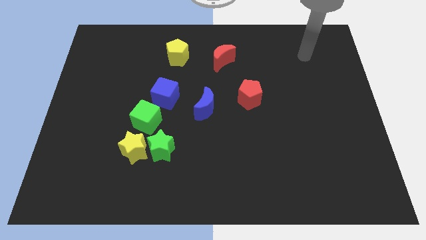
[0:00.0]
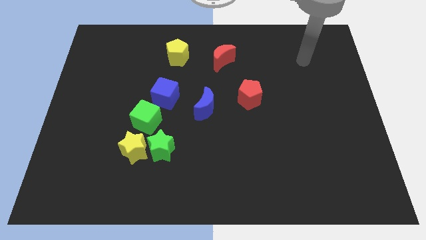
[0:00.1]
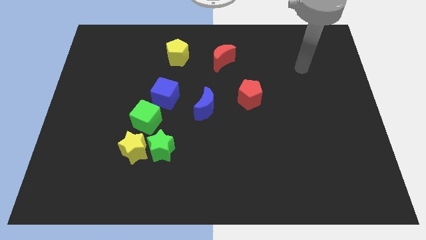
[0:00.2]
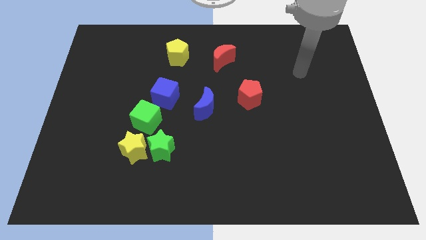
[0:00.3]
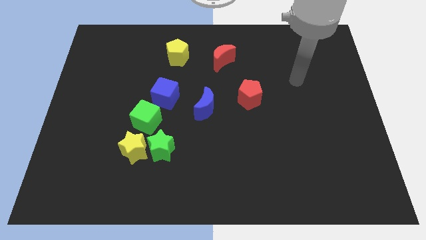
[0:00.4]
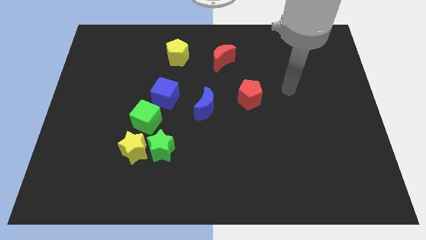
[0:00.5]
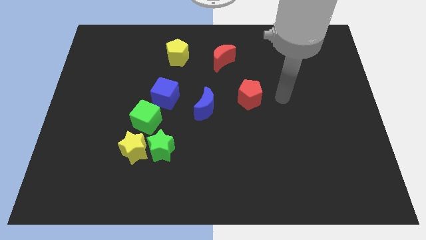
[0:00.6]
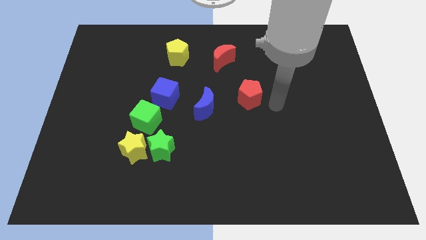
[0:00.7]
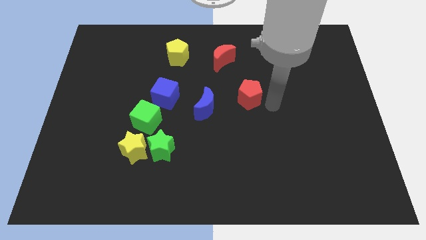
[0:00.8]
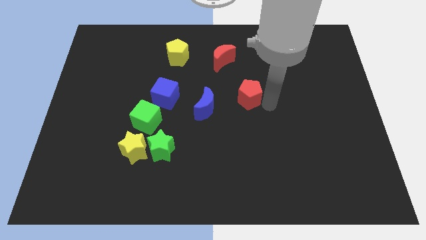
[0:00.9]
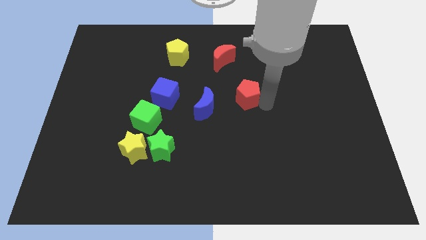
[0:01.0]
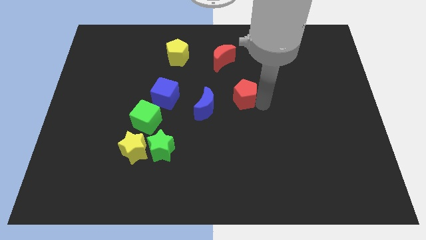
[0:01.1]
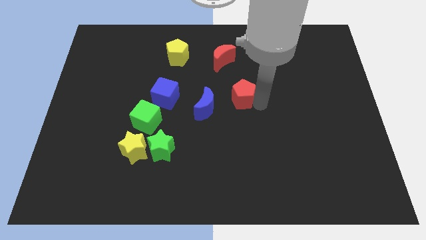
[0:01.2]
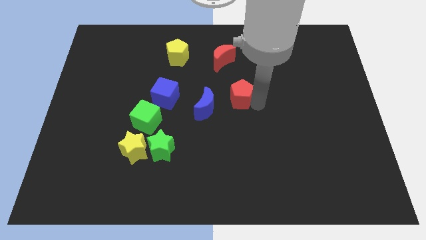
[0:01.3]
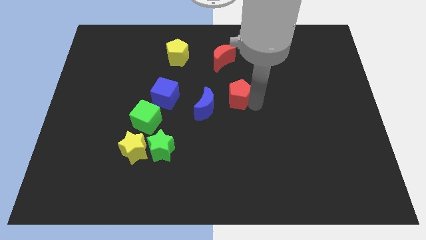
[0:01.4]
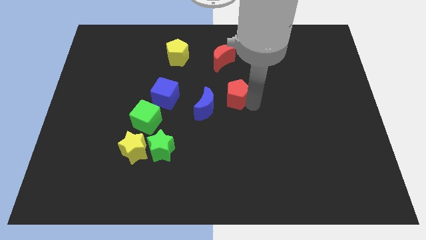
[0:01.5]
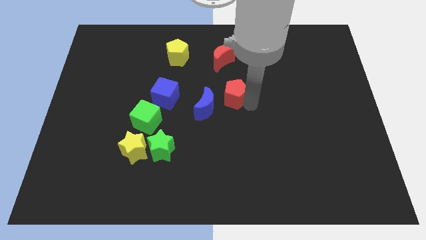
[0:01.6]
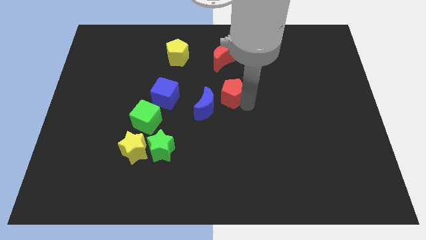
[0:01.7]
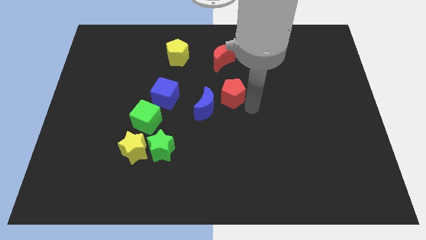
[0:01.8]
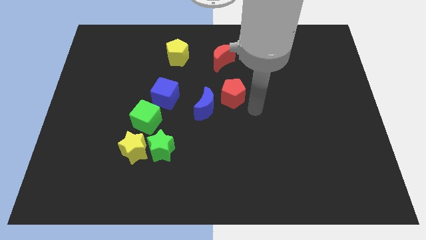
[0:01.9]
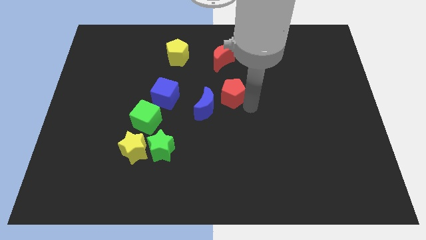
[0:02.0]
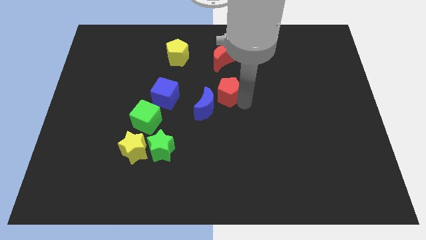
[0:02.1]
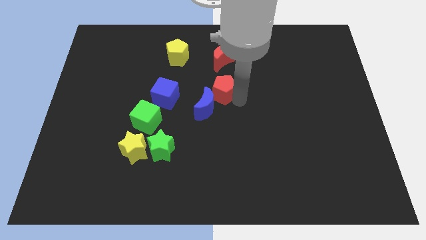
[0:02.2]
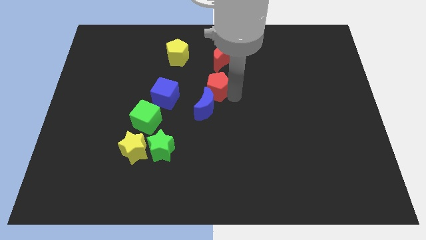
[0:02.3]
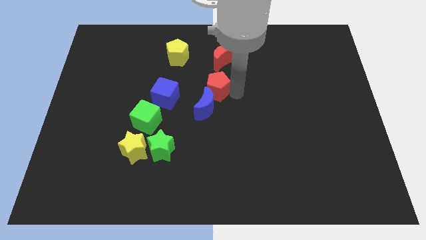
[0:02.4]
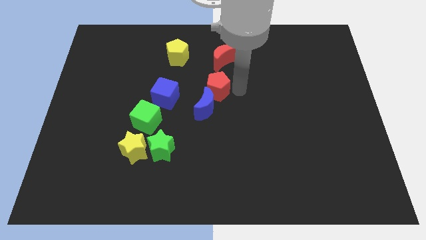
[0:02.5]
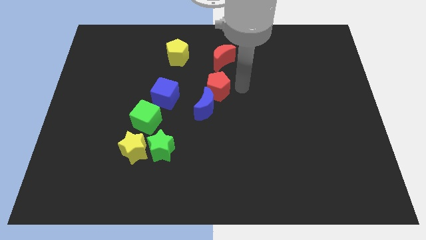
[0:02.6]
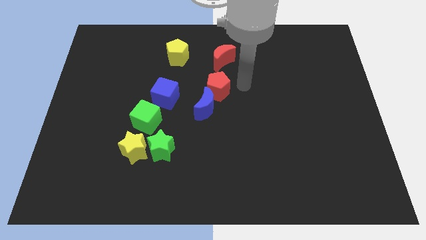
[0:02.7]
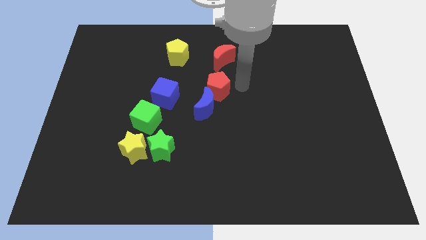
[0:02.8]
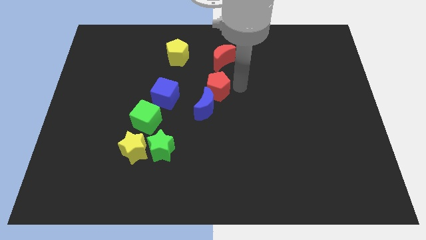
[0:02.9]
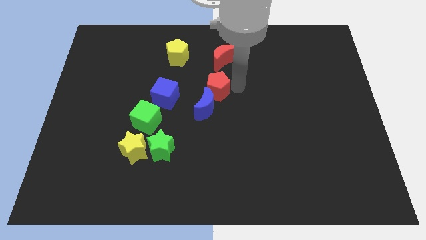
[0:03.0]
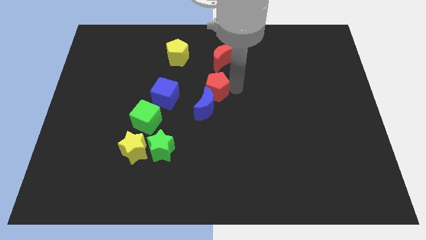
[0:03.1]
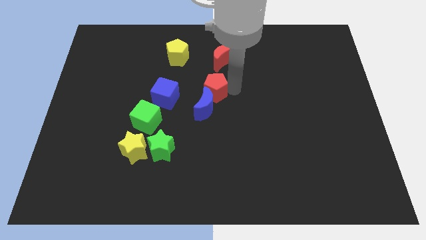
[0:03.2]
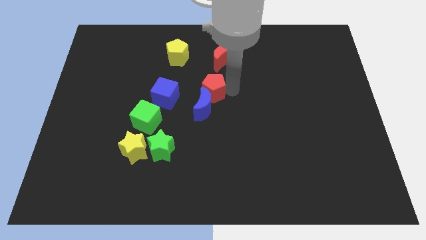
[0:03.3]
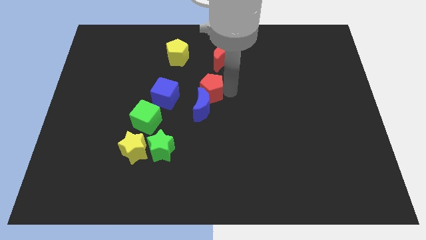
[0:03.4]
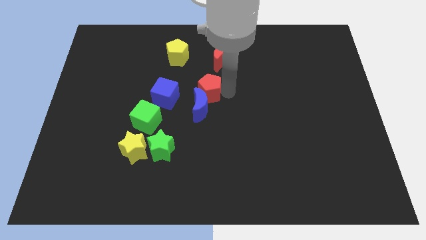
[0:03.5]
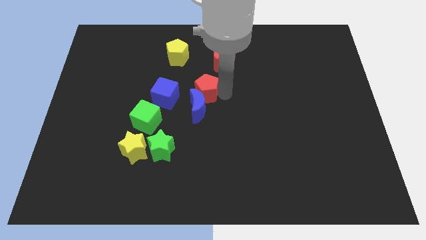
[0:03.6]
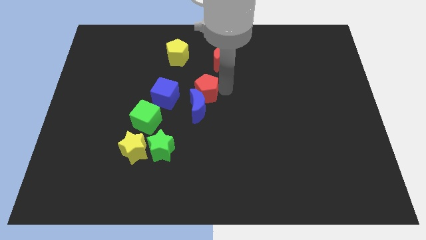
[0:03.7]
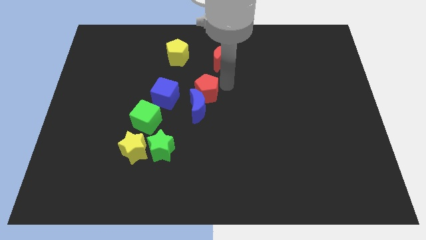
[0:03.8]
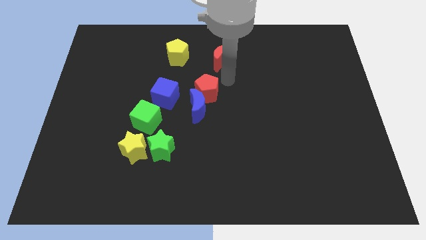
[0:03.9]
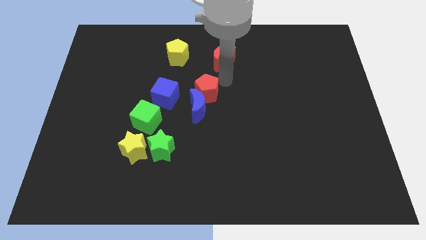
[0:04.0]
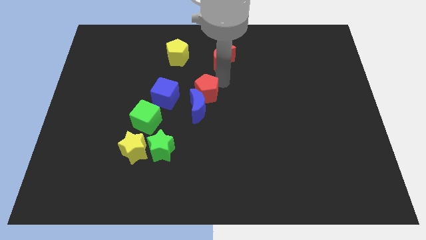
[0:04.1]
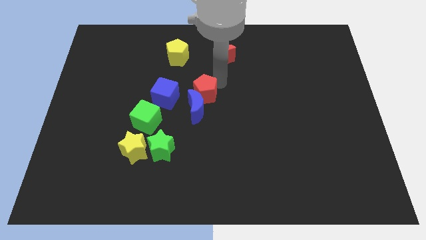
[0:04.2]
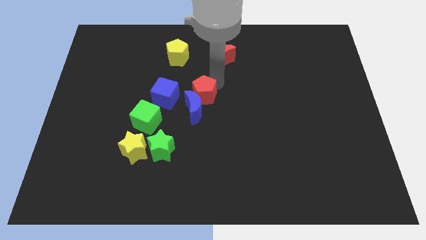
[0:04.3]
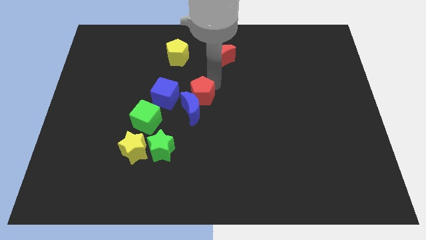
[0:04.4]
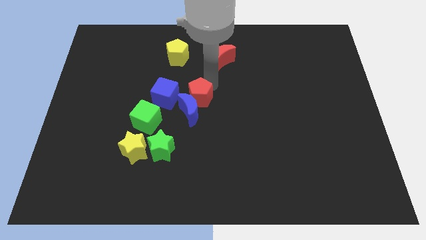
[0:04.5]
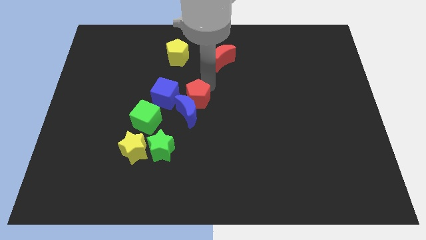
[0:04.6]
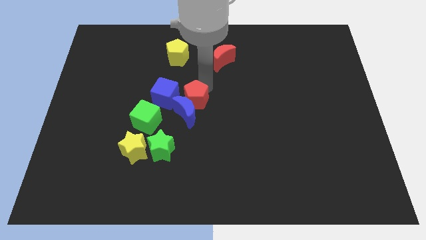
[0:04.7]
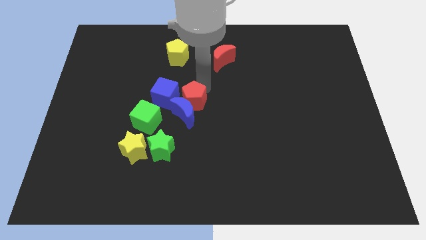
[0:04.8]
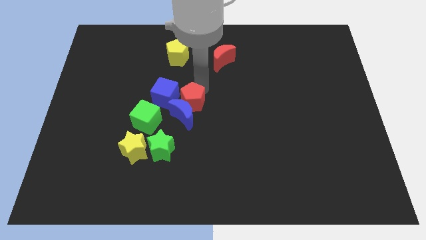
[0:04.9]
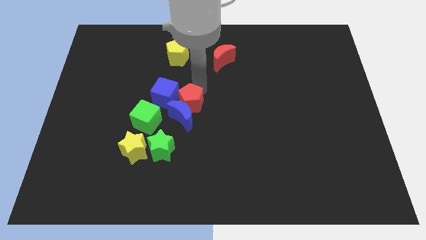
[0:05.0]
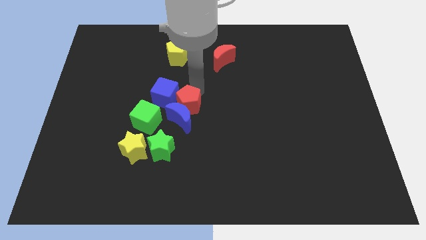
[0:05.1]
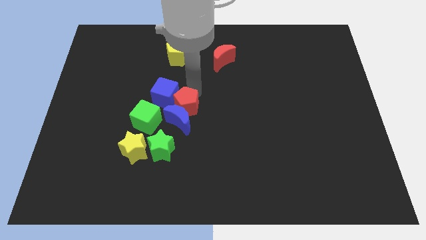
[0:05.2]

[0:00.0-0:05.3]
slide the red pentagon above the green star

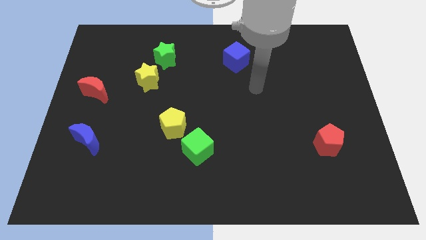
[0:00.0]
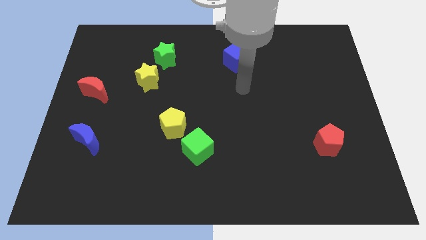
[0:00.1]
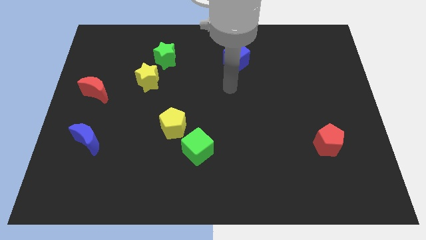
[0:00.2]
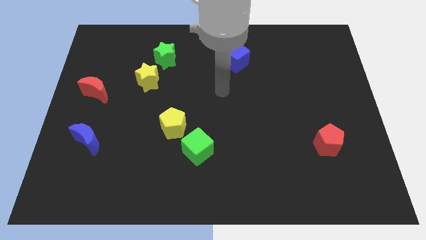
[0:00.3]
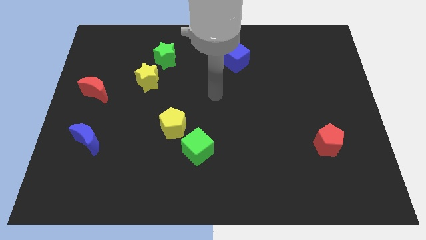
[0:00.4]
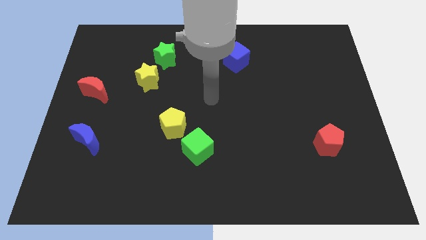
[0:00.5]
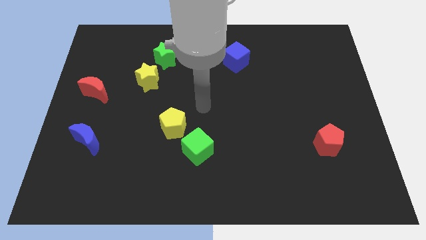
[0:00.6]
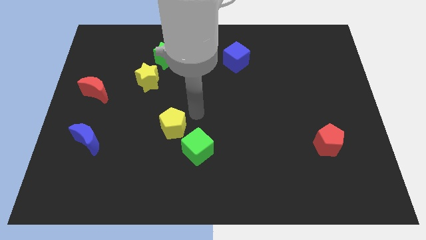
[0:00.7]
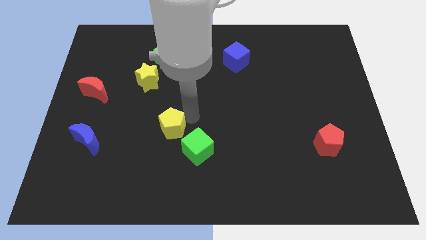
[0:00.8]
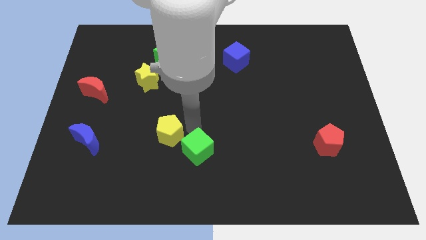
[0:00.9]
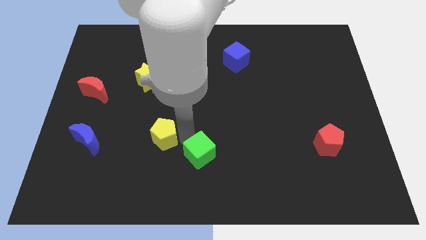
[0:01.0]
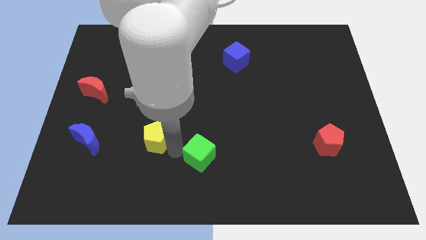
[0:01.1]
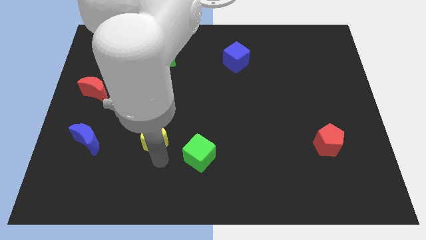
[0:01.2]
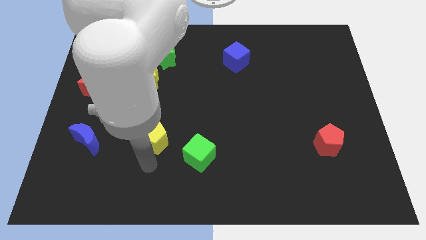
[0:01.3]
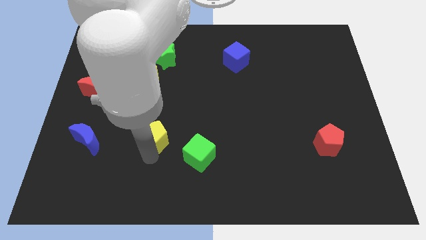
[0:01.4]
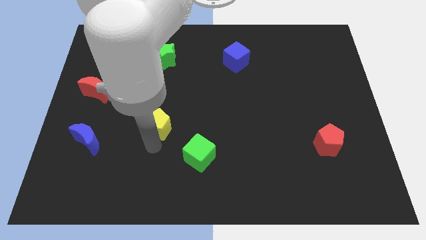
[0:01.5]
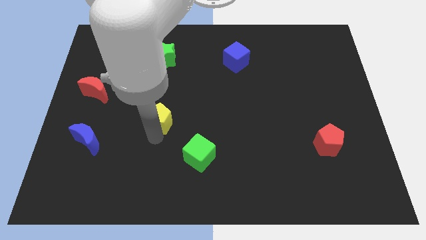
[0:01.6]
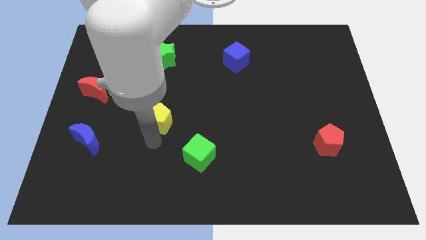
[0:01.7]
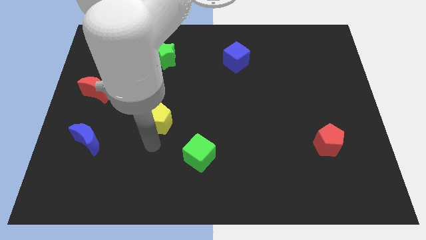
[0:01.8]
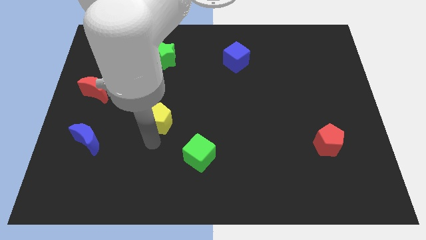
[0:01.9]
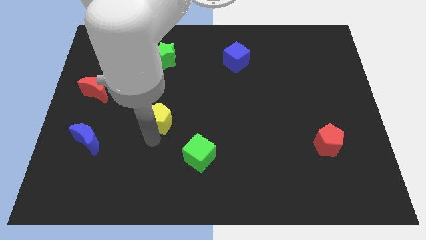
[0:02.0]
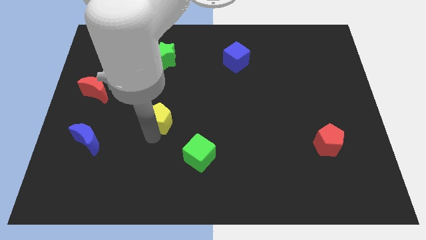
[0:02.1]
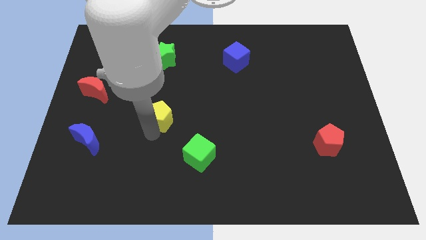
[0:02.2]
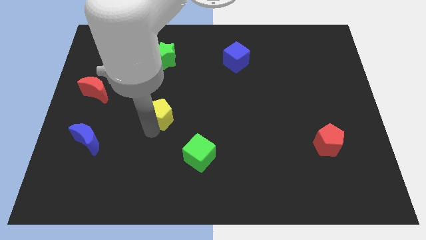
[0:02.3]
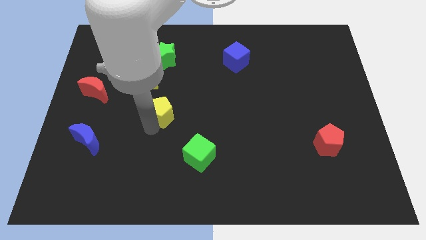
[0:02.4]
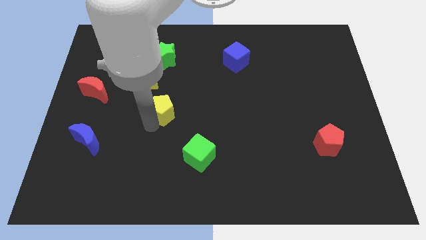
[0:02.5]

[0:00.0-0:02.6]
push the yellow pentagon diagonally down and to the right of the yellow star

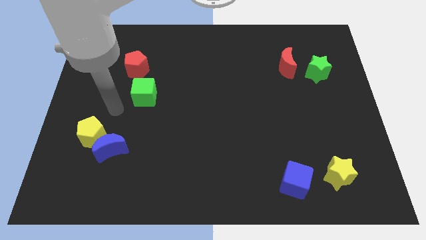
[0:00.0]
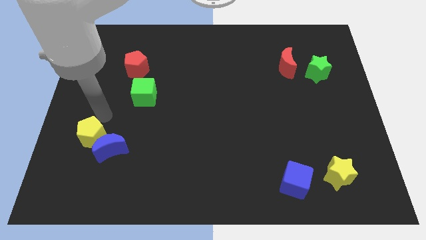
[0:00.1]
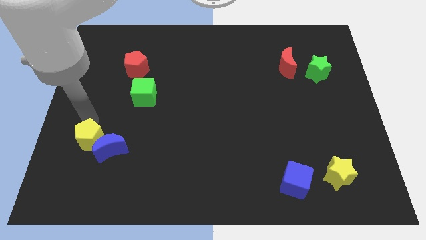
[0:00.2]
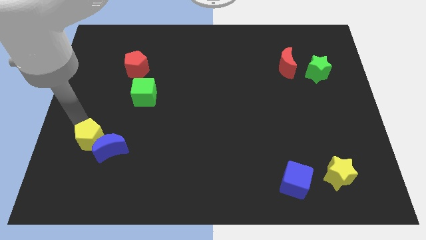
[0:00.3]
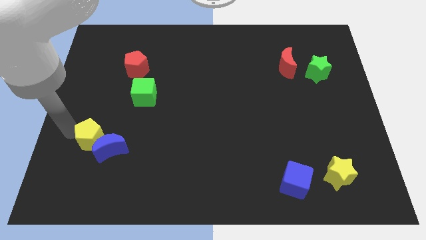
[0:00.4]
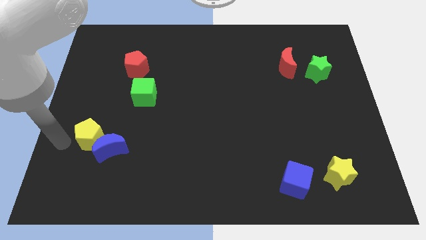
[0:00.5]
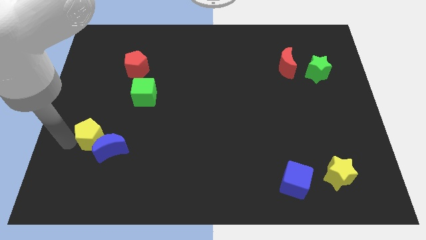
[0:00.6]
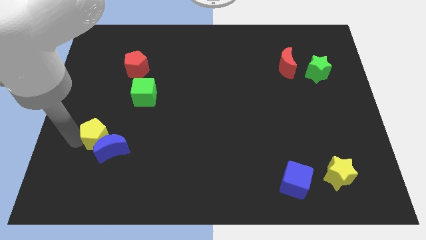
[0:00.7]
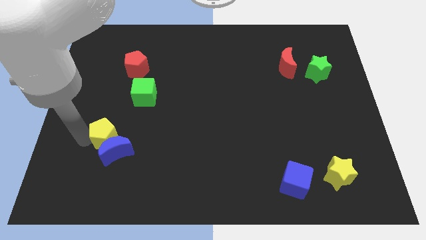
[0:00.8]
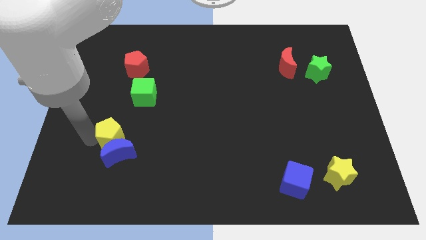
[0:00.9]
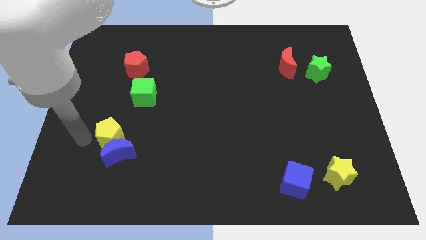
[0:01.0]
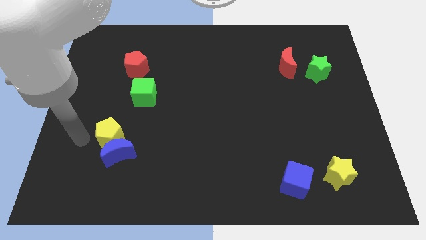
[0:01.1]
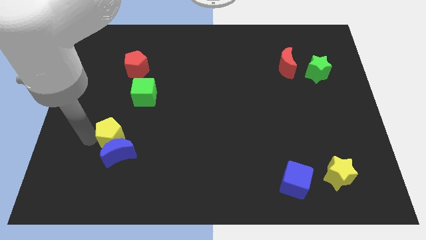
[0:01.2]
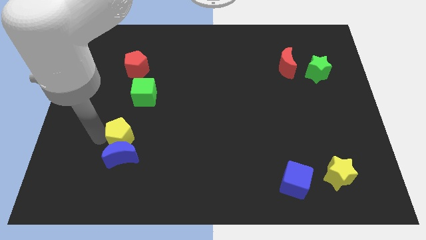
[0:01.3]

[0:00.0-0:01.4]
push the yellow pentagon to the top right side of the blue moon
